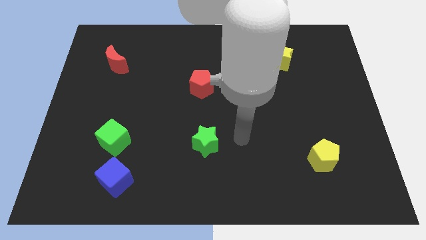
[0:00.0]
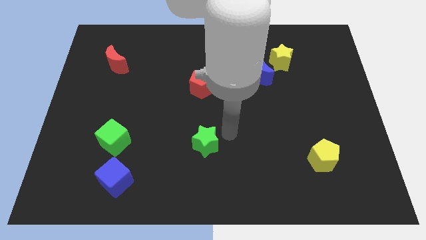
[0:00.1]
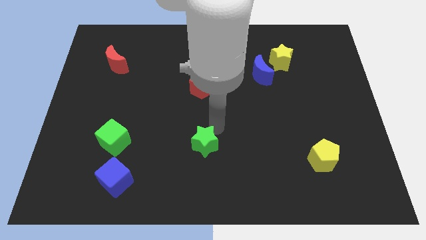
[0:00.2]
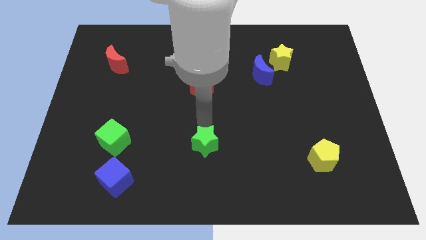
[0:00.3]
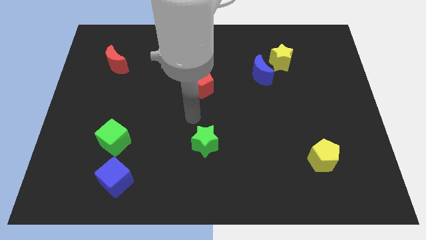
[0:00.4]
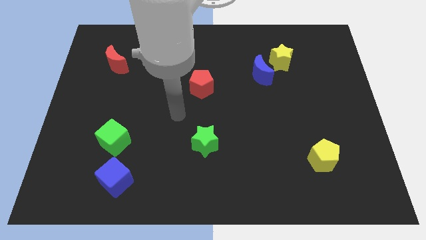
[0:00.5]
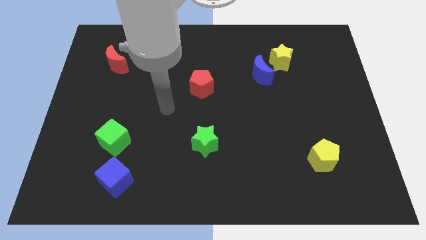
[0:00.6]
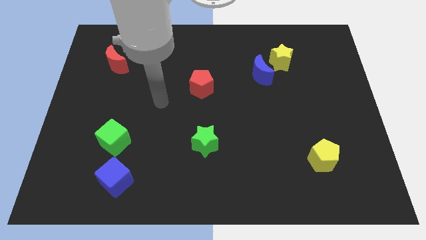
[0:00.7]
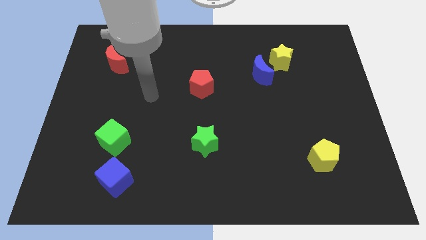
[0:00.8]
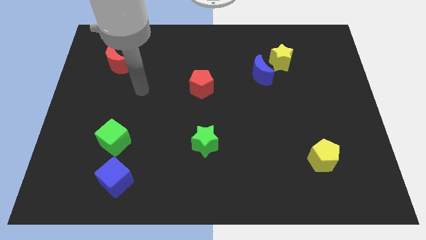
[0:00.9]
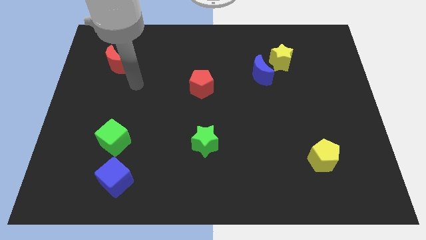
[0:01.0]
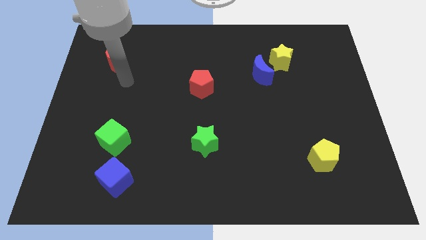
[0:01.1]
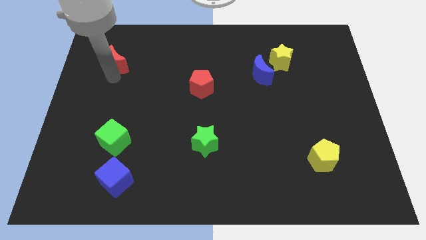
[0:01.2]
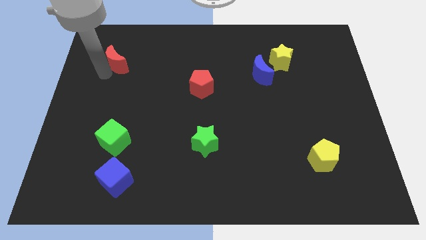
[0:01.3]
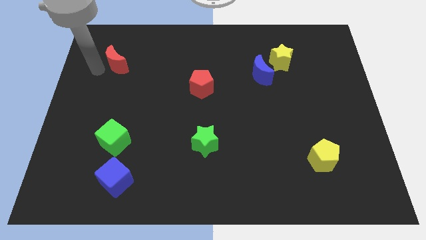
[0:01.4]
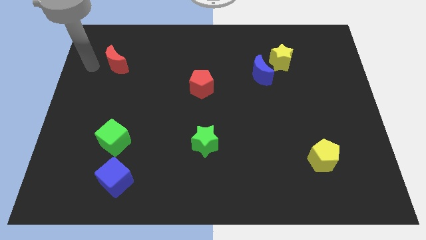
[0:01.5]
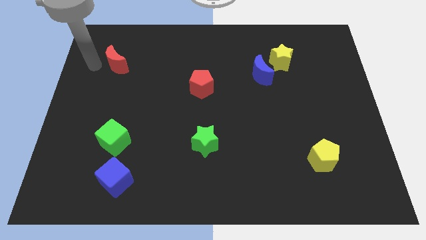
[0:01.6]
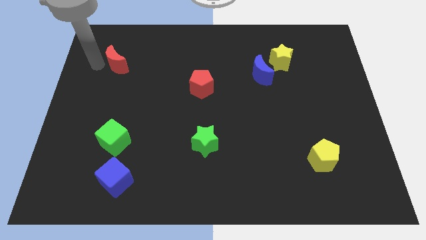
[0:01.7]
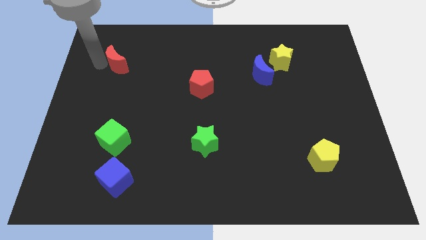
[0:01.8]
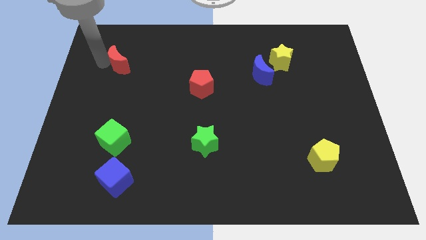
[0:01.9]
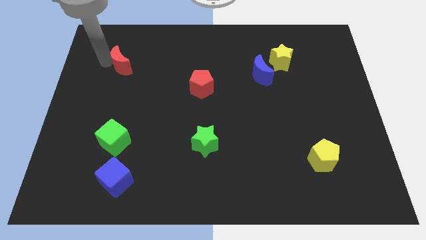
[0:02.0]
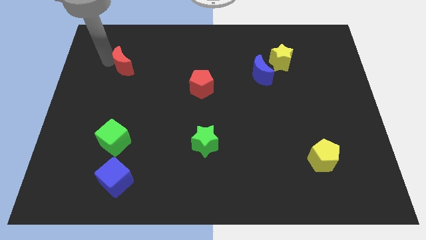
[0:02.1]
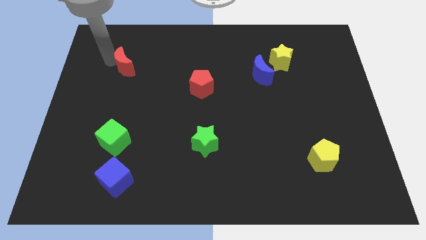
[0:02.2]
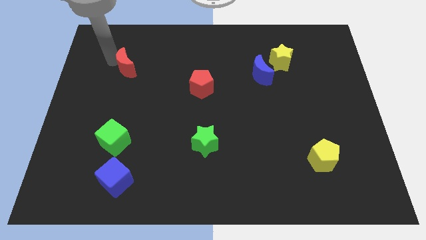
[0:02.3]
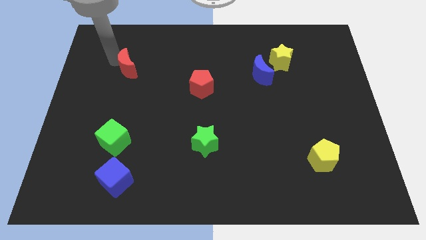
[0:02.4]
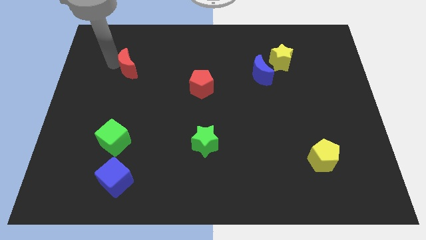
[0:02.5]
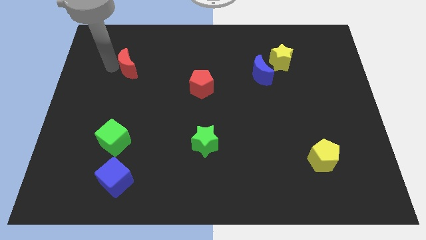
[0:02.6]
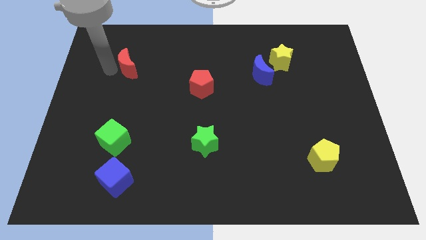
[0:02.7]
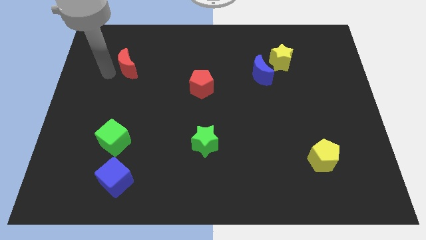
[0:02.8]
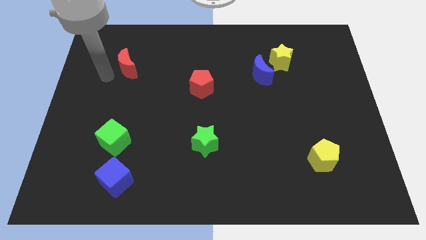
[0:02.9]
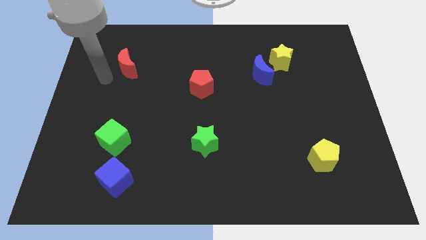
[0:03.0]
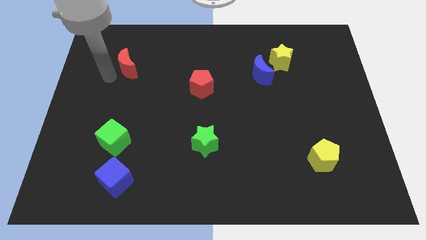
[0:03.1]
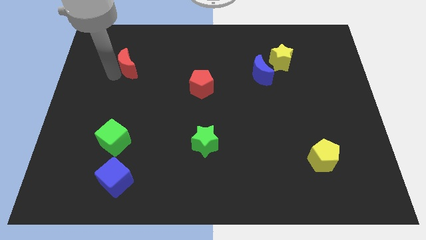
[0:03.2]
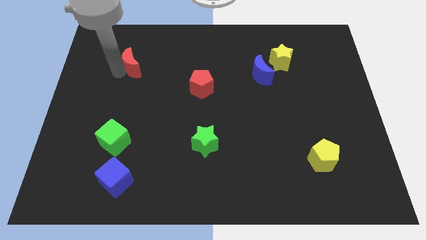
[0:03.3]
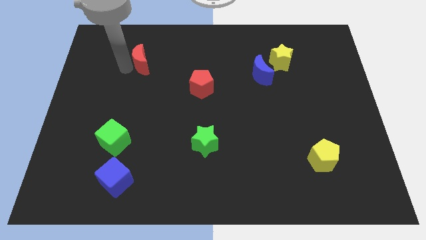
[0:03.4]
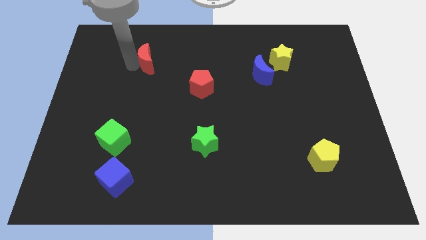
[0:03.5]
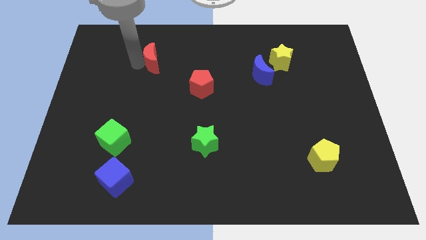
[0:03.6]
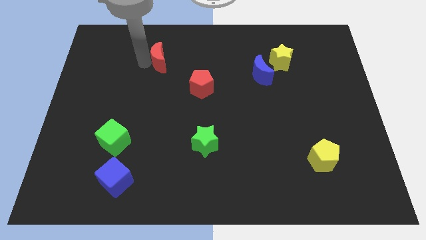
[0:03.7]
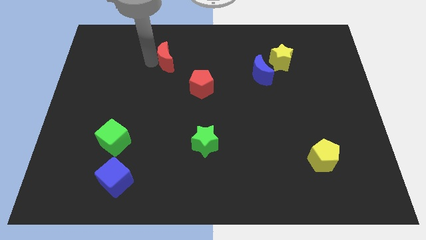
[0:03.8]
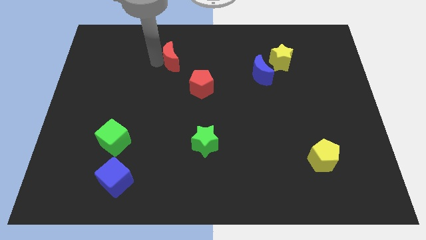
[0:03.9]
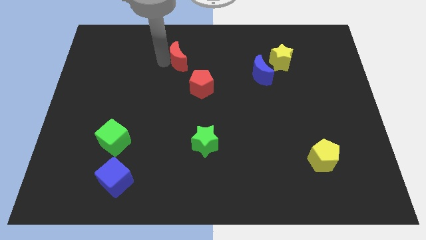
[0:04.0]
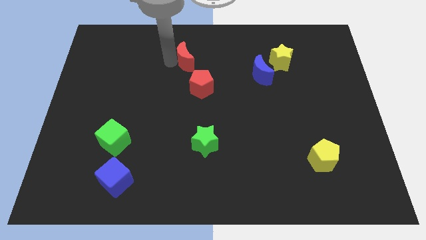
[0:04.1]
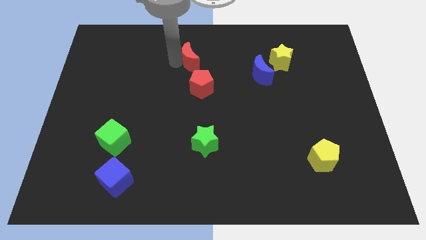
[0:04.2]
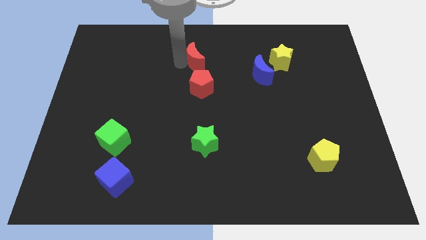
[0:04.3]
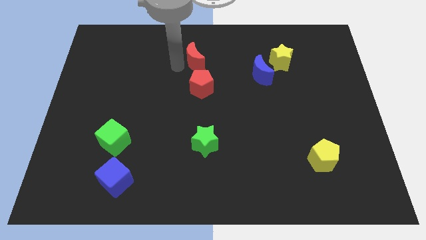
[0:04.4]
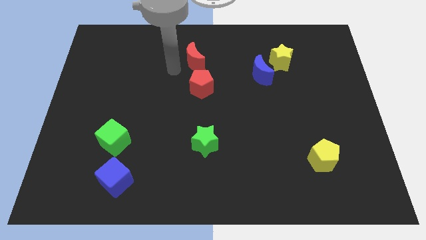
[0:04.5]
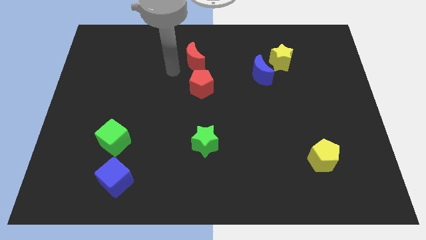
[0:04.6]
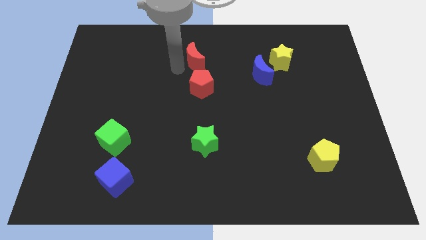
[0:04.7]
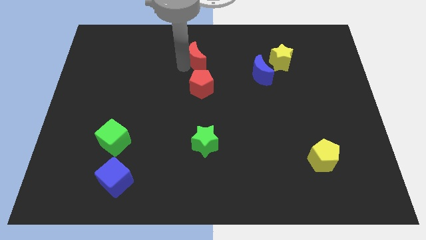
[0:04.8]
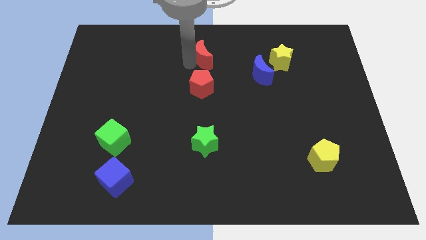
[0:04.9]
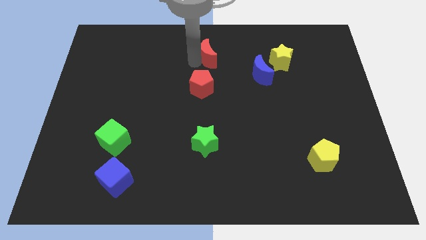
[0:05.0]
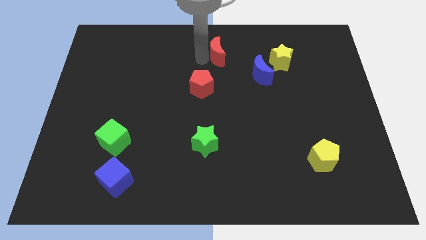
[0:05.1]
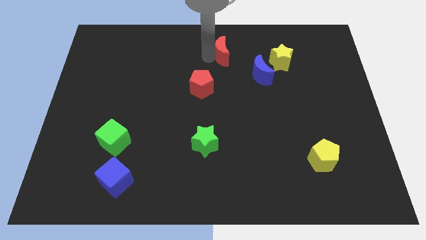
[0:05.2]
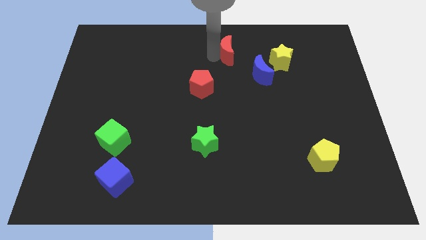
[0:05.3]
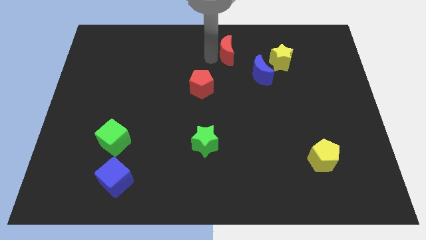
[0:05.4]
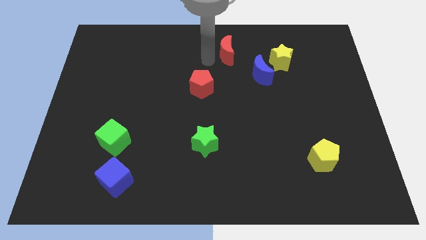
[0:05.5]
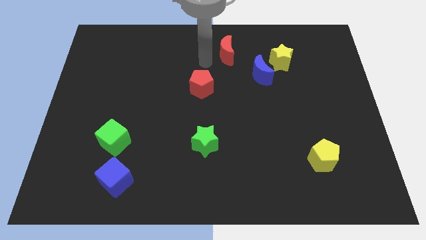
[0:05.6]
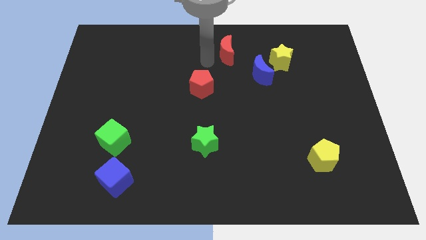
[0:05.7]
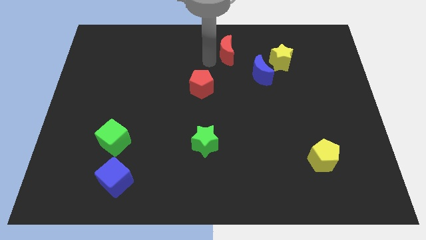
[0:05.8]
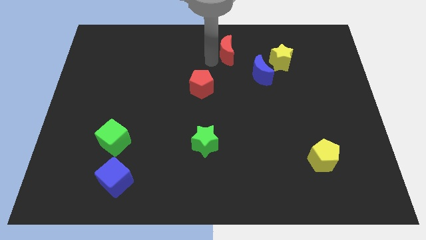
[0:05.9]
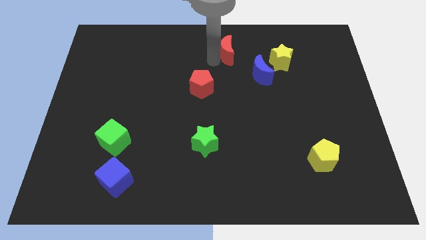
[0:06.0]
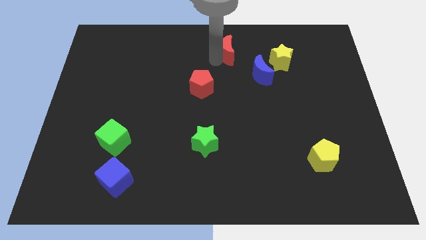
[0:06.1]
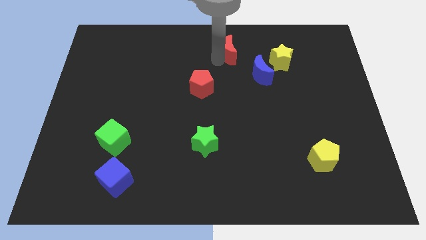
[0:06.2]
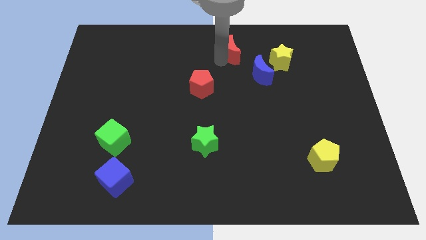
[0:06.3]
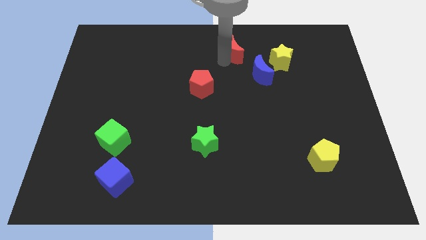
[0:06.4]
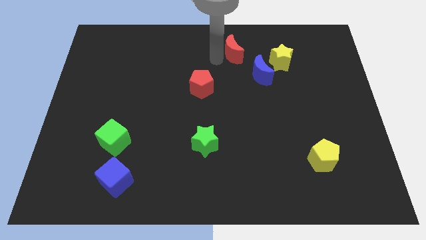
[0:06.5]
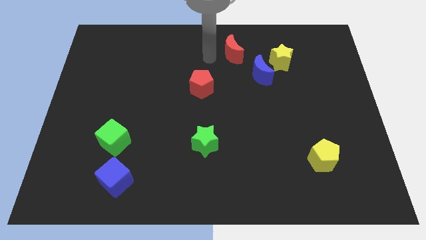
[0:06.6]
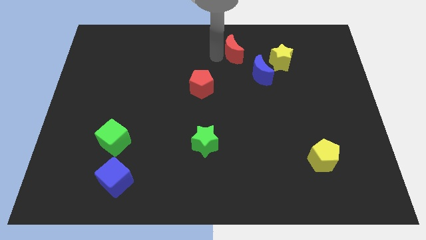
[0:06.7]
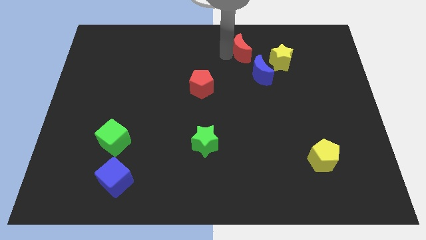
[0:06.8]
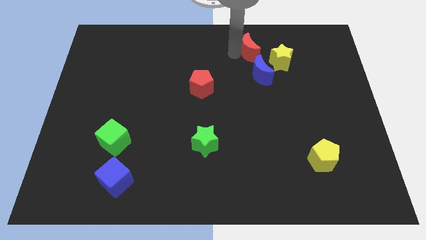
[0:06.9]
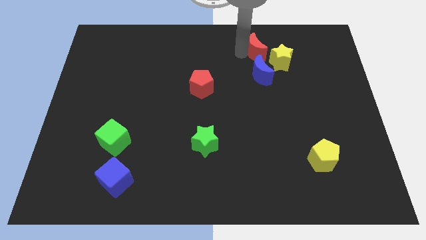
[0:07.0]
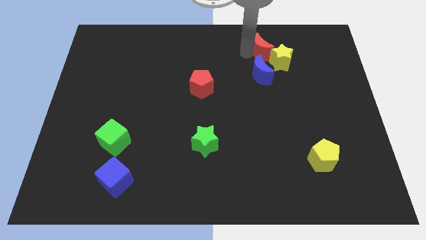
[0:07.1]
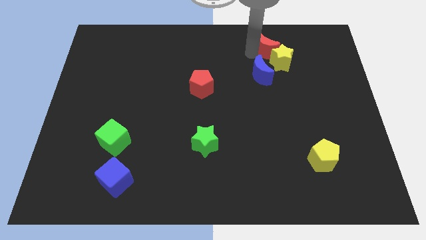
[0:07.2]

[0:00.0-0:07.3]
push the red moon to the top right side of the blue moon

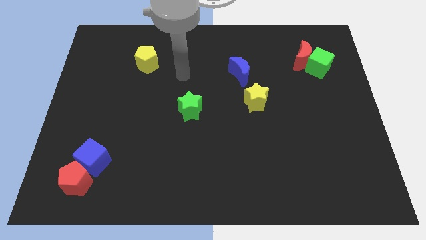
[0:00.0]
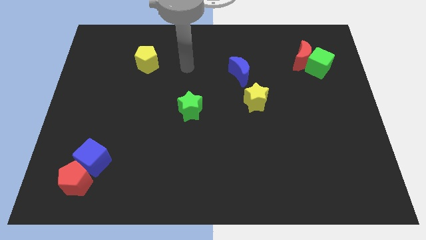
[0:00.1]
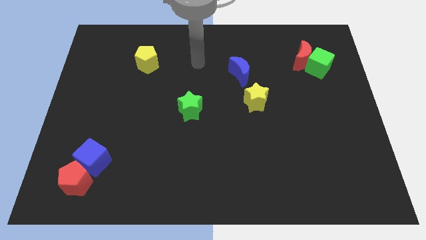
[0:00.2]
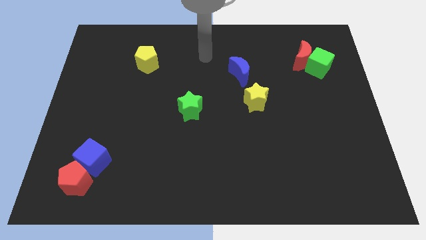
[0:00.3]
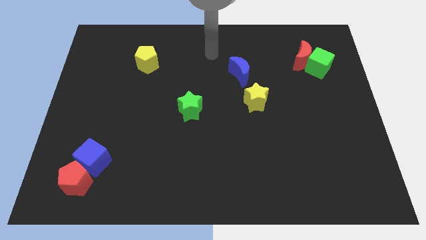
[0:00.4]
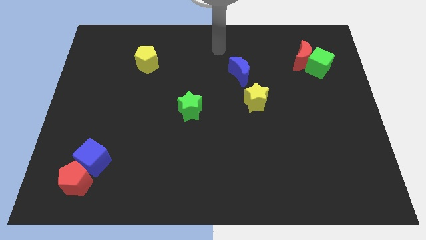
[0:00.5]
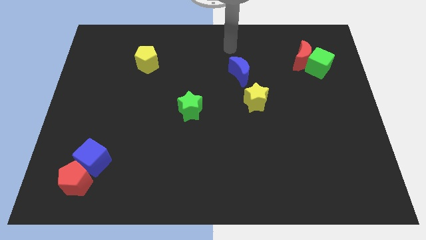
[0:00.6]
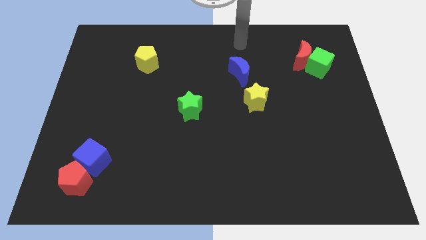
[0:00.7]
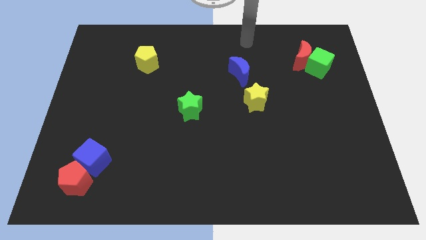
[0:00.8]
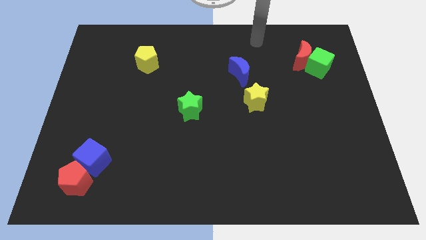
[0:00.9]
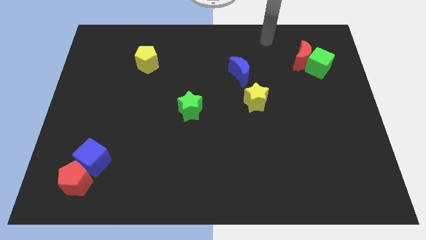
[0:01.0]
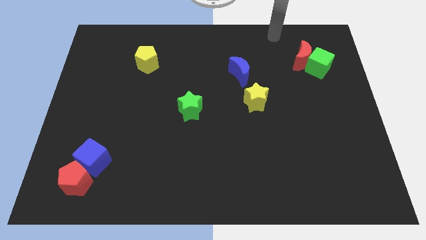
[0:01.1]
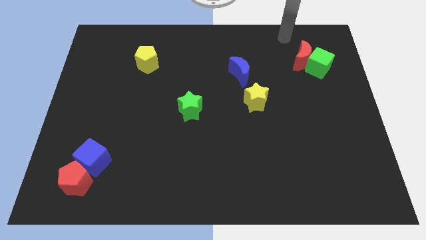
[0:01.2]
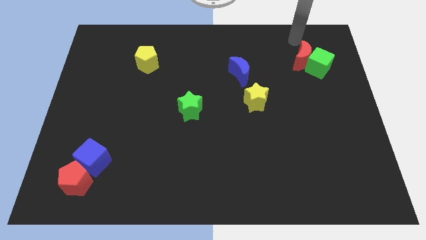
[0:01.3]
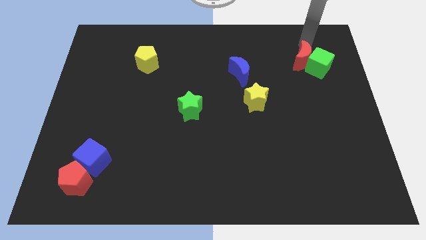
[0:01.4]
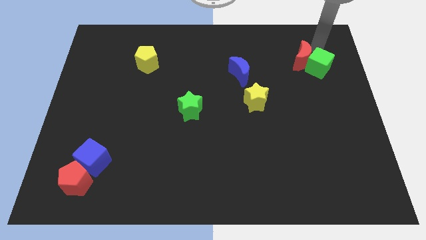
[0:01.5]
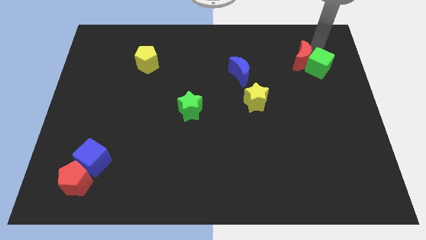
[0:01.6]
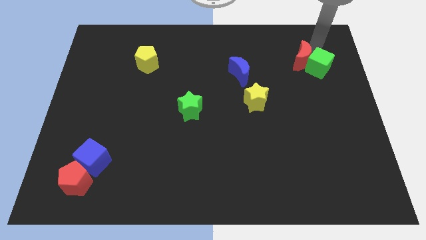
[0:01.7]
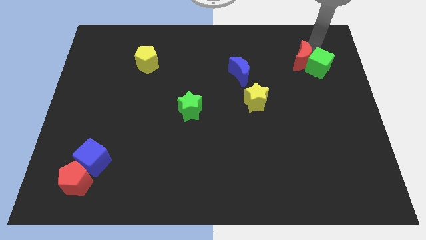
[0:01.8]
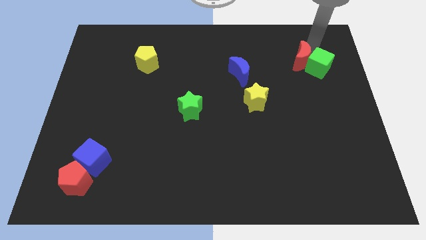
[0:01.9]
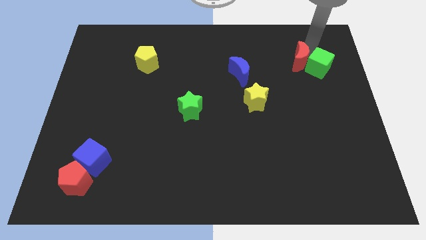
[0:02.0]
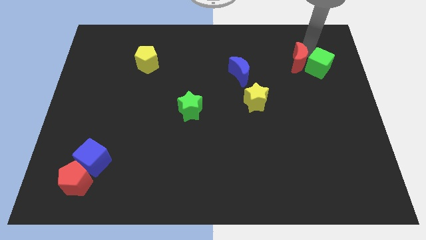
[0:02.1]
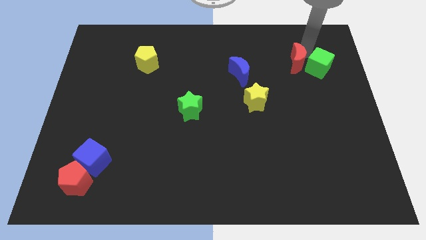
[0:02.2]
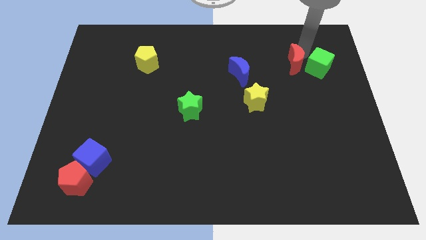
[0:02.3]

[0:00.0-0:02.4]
put the red moon to the right of the blue moon
